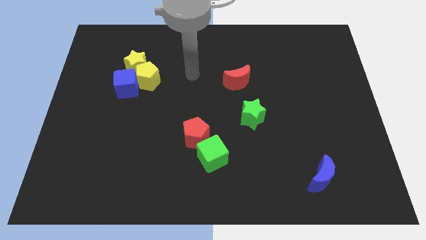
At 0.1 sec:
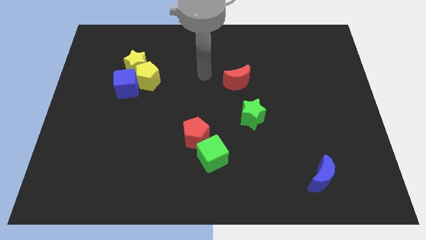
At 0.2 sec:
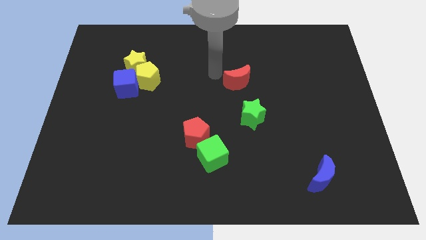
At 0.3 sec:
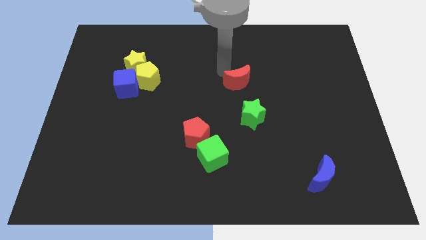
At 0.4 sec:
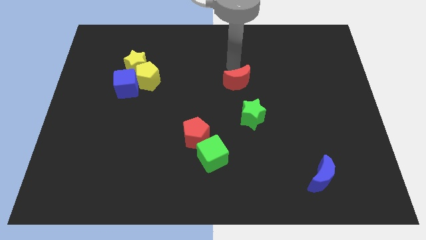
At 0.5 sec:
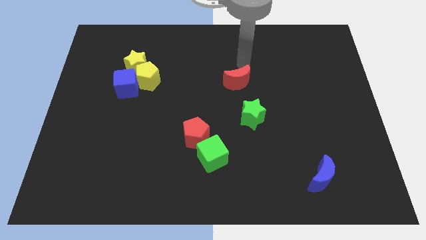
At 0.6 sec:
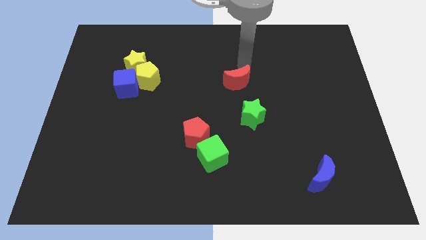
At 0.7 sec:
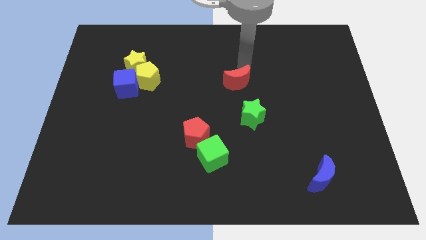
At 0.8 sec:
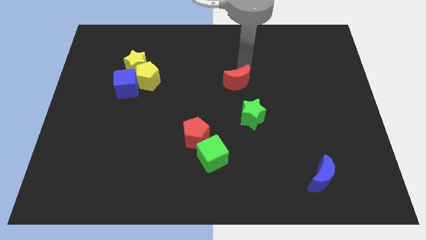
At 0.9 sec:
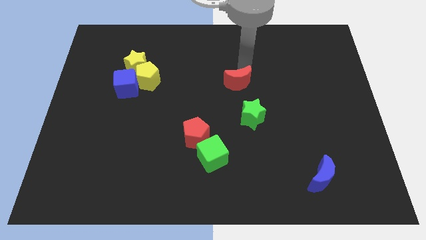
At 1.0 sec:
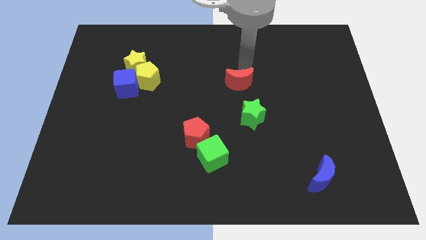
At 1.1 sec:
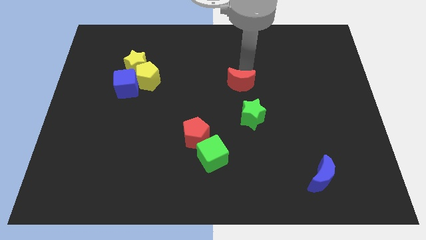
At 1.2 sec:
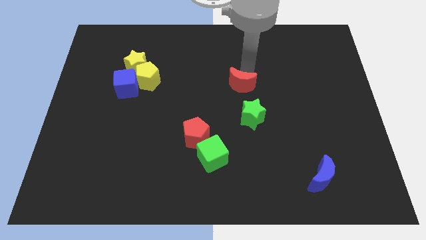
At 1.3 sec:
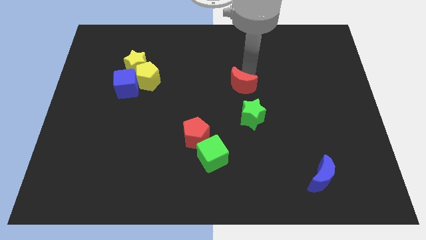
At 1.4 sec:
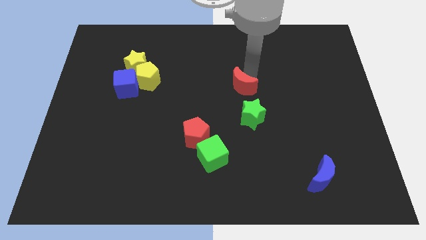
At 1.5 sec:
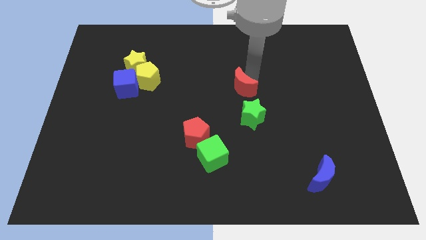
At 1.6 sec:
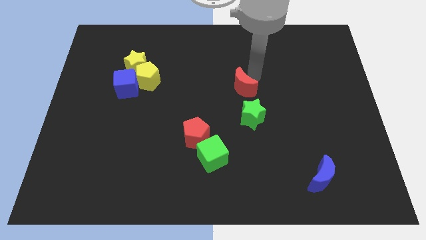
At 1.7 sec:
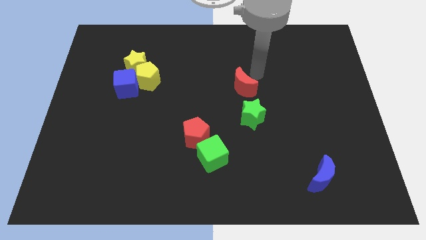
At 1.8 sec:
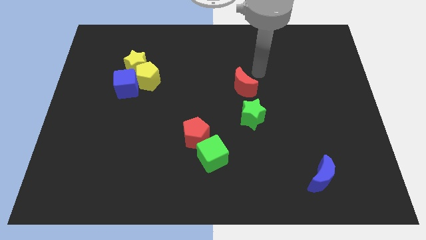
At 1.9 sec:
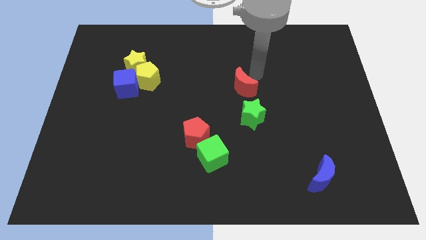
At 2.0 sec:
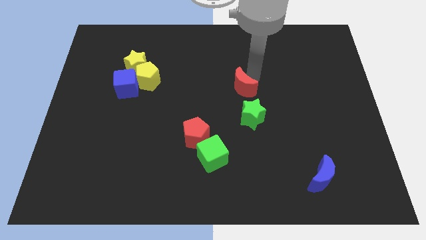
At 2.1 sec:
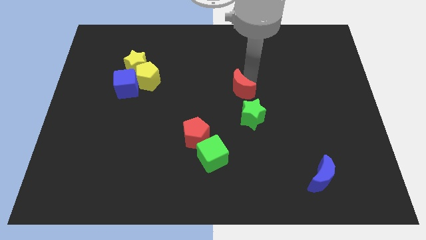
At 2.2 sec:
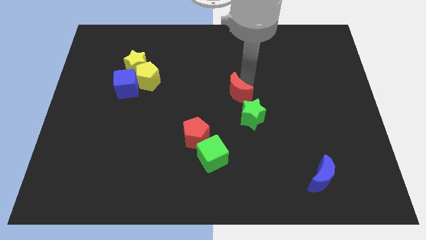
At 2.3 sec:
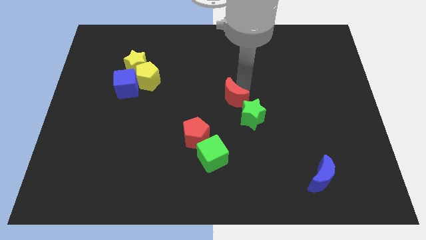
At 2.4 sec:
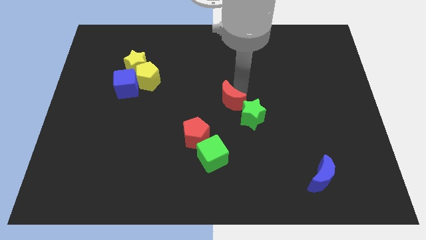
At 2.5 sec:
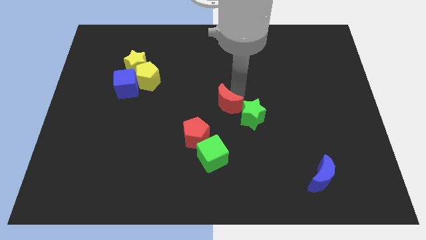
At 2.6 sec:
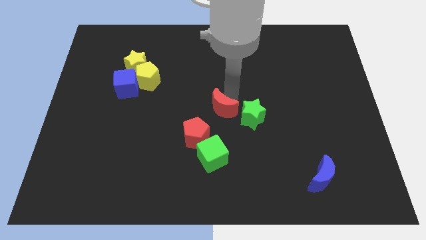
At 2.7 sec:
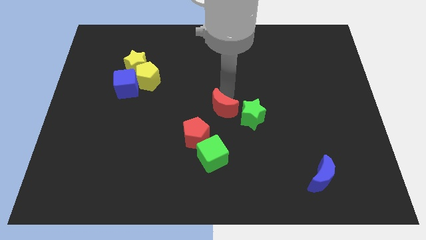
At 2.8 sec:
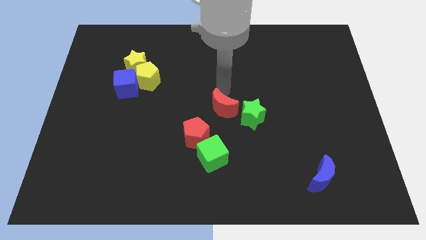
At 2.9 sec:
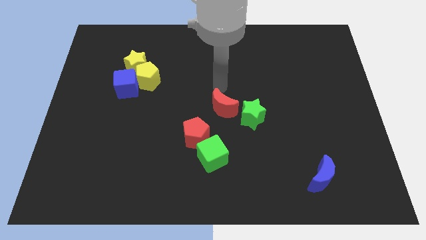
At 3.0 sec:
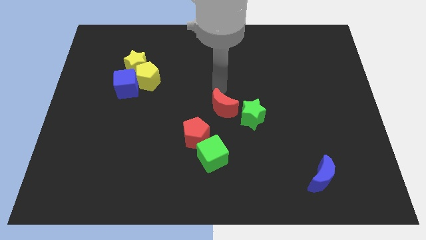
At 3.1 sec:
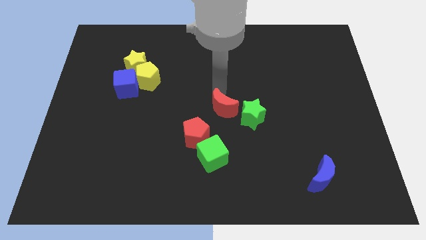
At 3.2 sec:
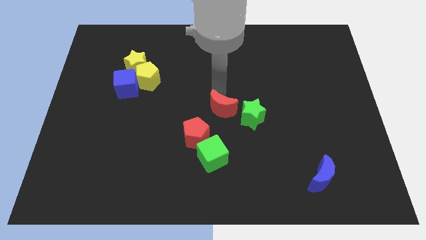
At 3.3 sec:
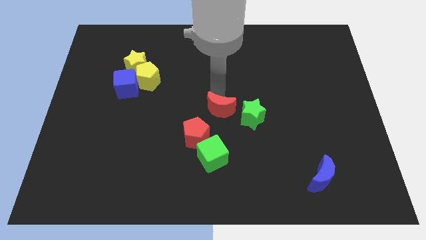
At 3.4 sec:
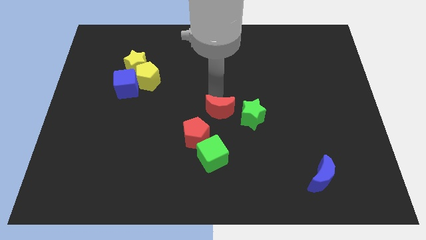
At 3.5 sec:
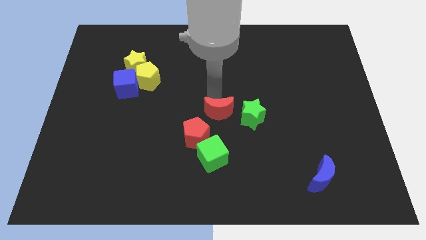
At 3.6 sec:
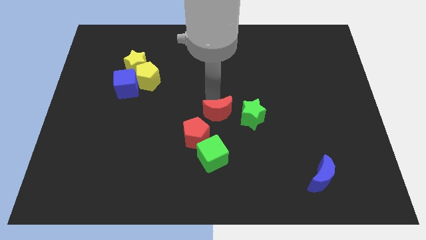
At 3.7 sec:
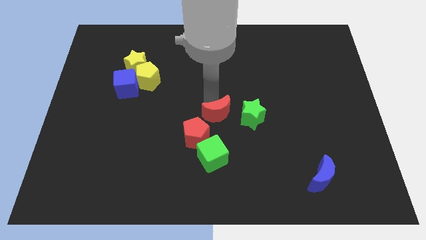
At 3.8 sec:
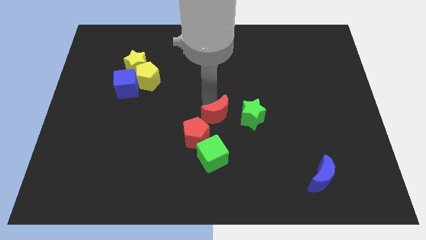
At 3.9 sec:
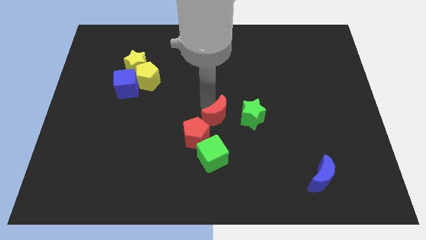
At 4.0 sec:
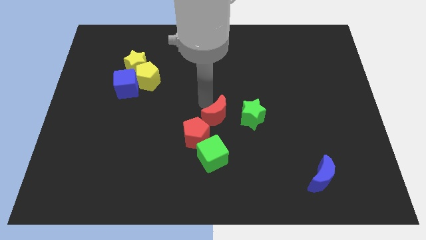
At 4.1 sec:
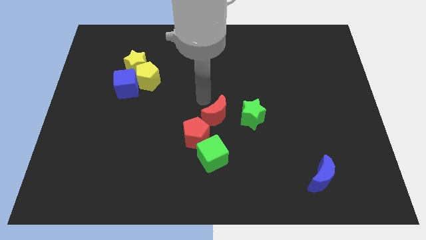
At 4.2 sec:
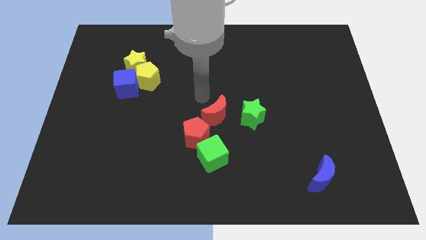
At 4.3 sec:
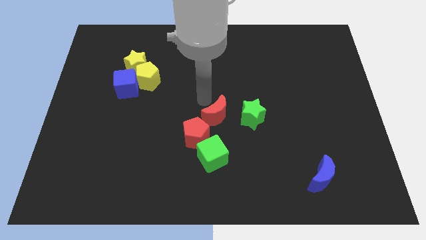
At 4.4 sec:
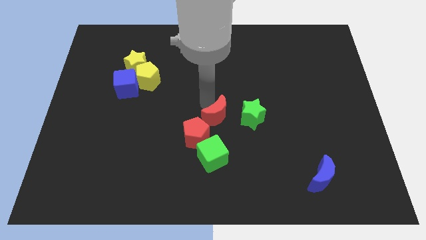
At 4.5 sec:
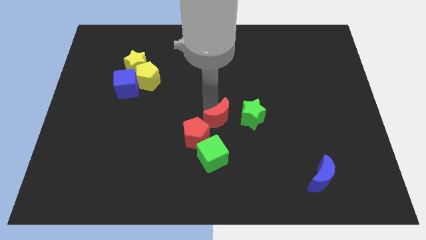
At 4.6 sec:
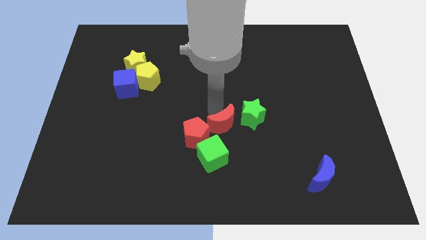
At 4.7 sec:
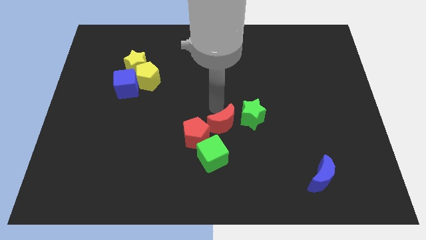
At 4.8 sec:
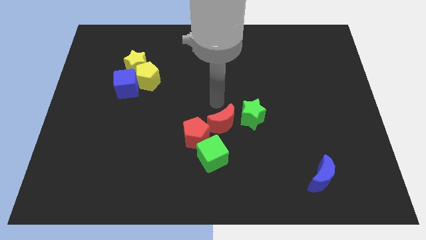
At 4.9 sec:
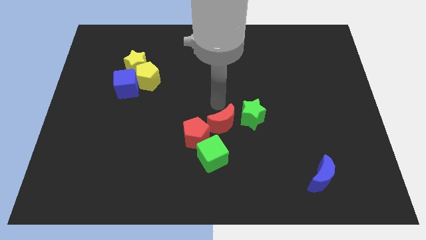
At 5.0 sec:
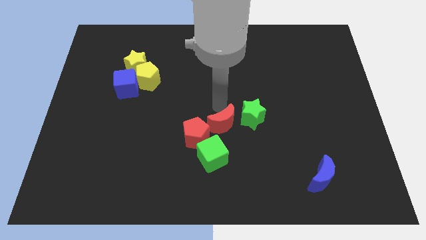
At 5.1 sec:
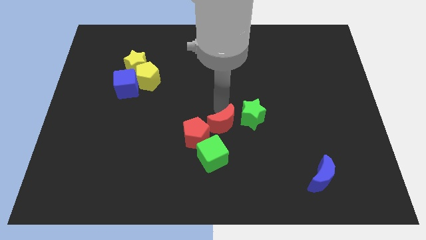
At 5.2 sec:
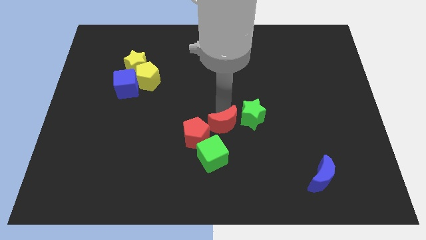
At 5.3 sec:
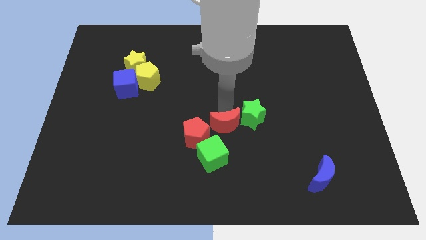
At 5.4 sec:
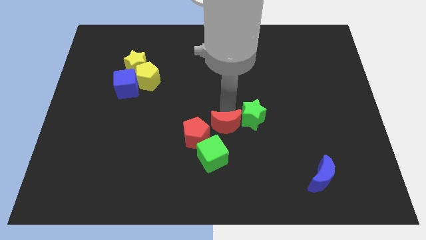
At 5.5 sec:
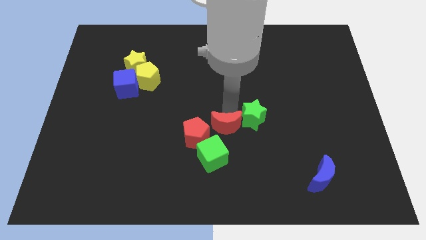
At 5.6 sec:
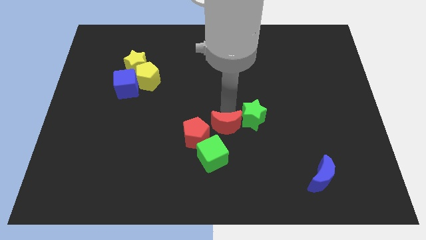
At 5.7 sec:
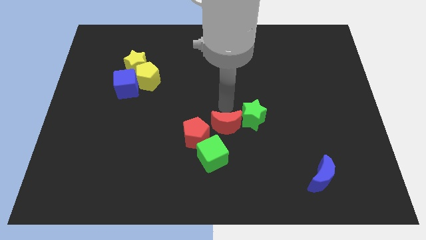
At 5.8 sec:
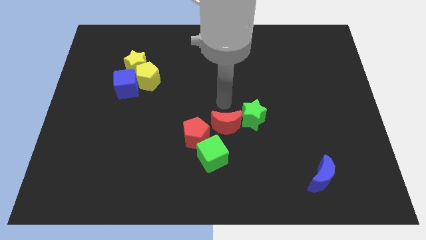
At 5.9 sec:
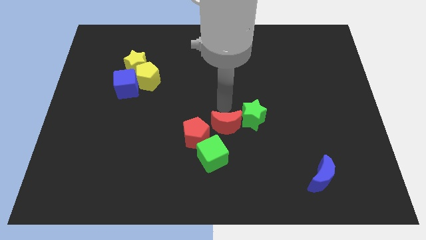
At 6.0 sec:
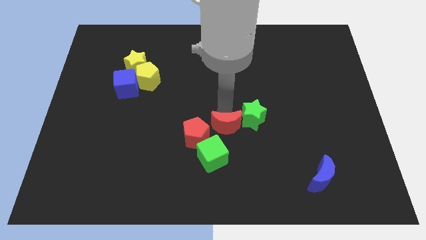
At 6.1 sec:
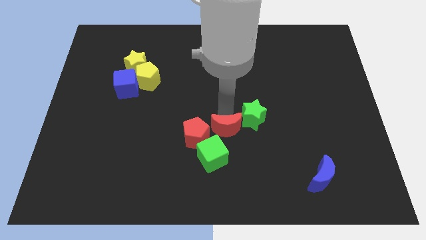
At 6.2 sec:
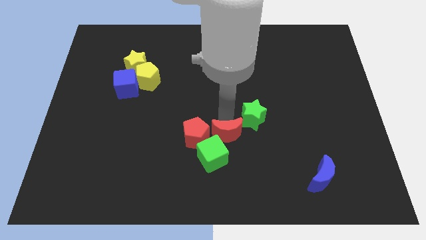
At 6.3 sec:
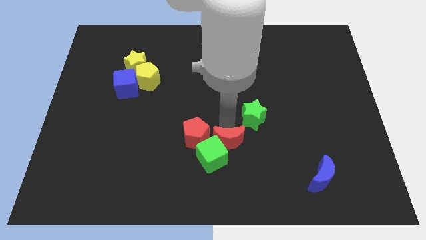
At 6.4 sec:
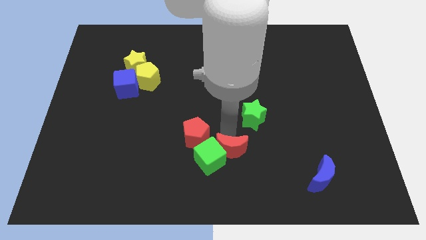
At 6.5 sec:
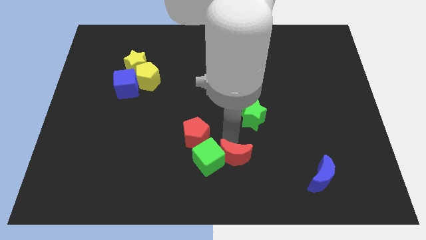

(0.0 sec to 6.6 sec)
push the red moon to the bottom side

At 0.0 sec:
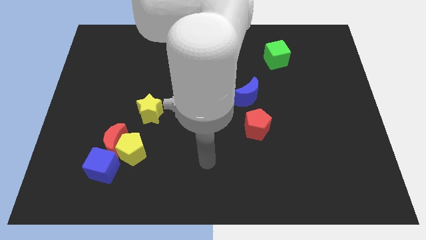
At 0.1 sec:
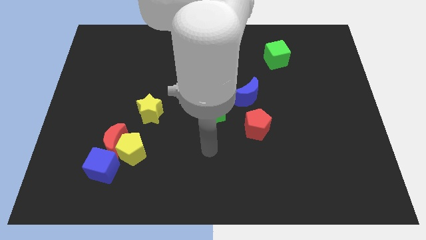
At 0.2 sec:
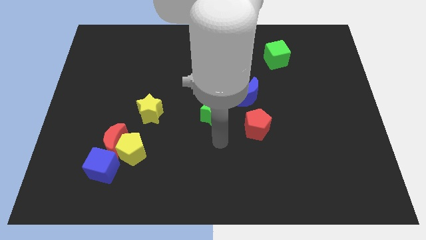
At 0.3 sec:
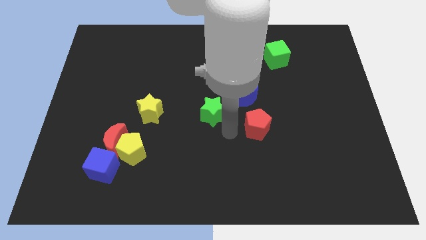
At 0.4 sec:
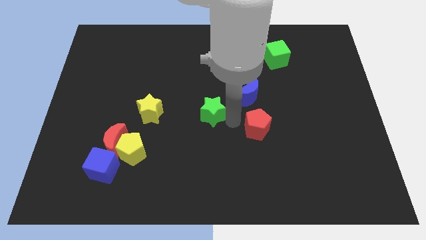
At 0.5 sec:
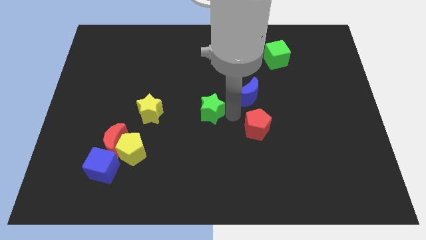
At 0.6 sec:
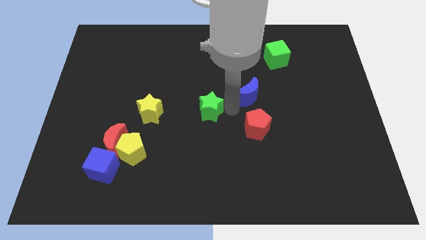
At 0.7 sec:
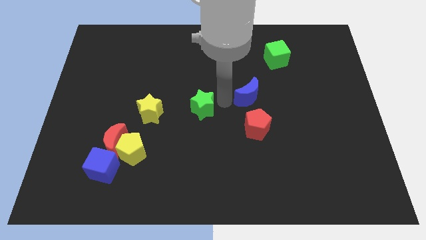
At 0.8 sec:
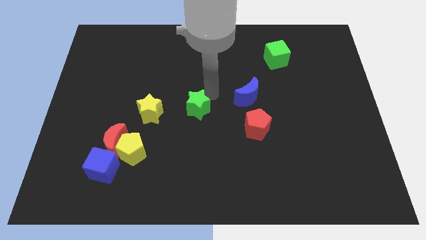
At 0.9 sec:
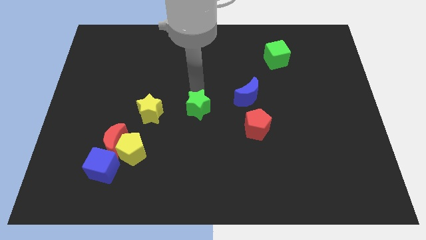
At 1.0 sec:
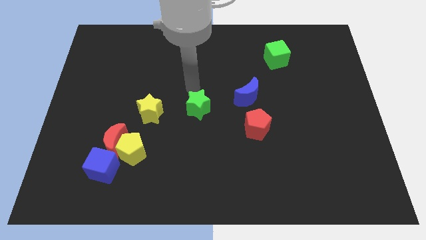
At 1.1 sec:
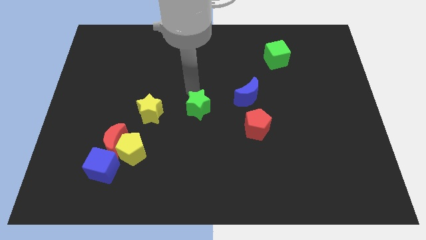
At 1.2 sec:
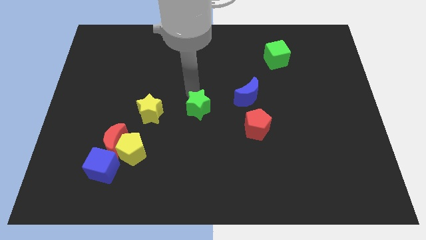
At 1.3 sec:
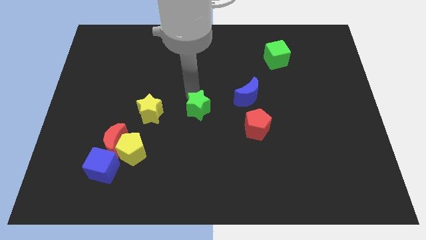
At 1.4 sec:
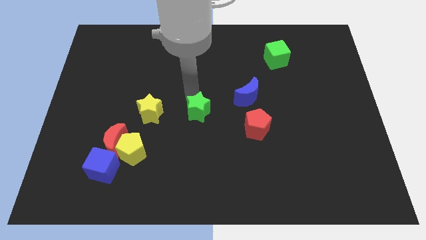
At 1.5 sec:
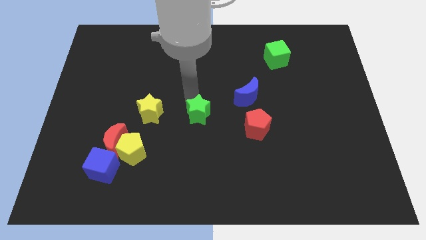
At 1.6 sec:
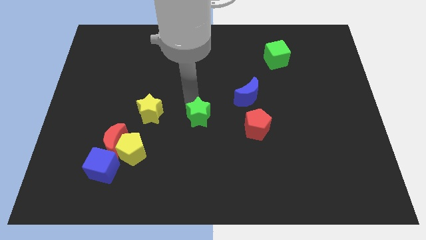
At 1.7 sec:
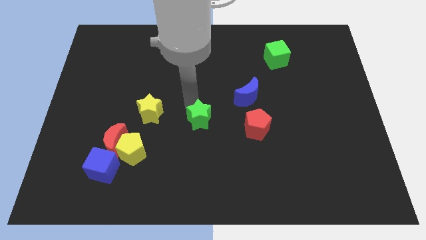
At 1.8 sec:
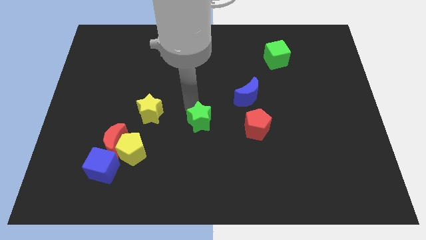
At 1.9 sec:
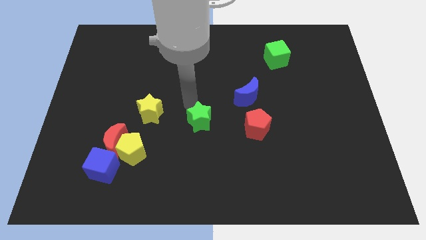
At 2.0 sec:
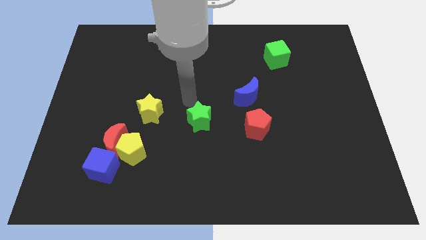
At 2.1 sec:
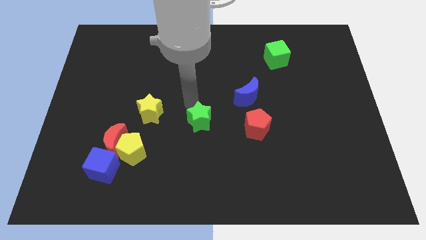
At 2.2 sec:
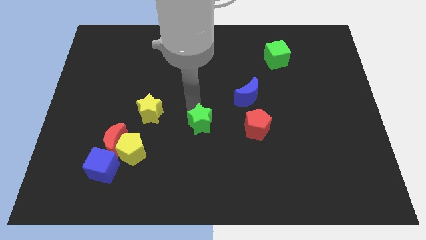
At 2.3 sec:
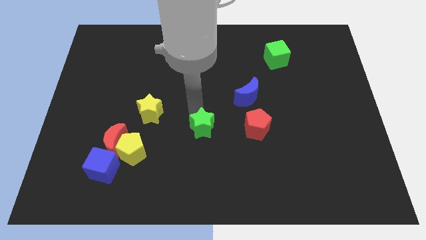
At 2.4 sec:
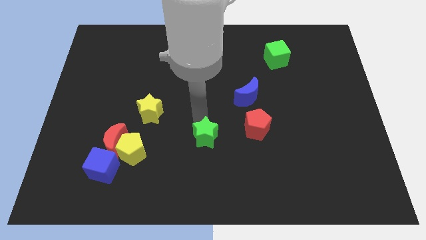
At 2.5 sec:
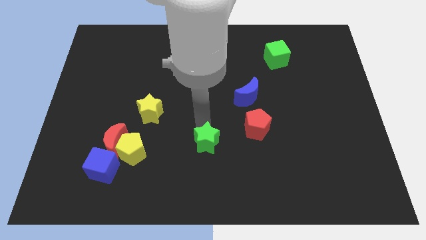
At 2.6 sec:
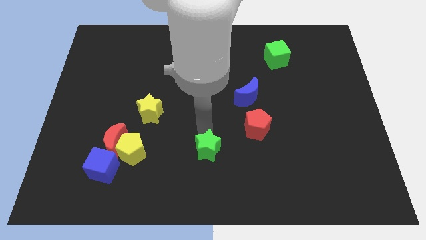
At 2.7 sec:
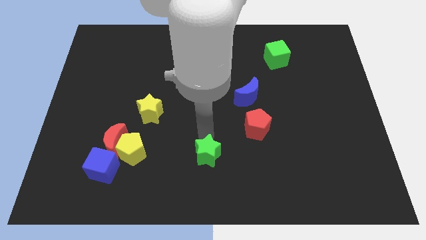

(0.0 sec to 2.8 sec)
slide the green star to the bottom
